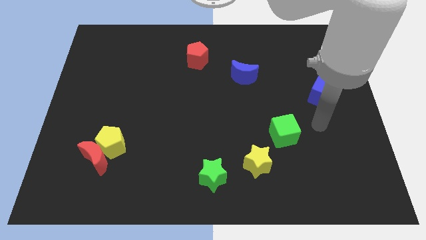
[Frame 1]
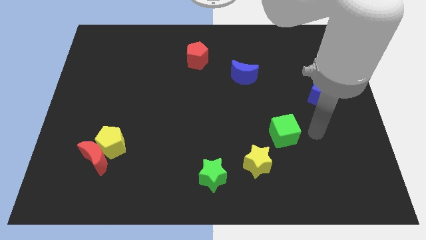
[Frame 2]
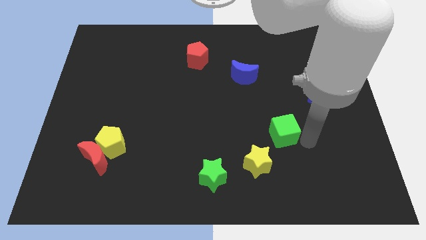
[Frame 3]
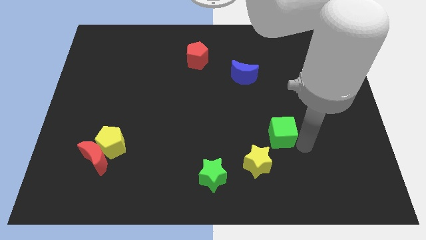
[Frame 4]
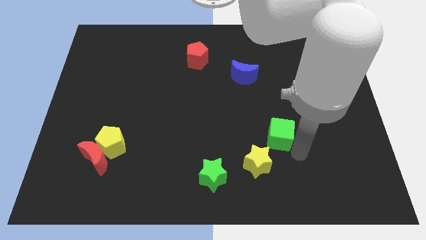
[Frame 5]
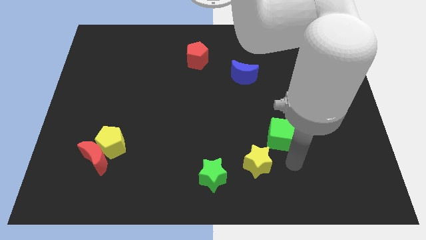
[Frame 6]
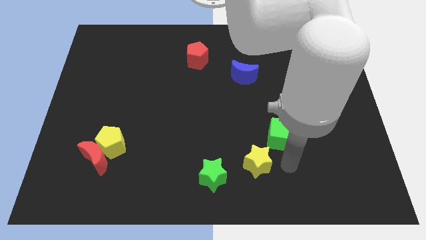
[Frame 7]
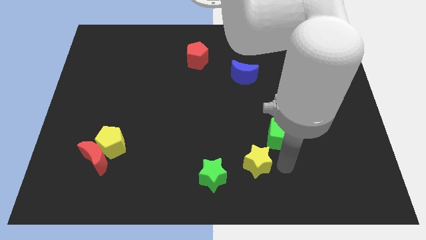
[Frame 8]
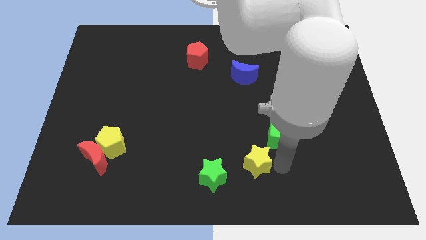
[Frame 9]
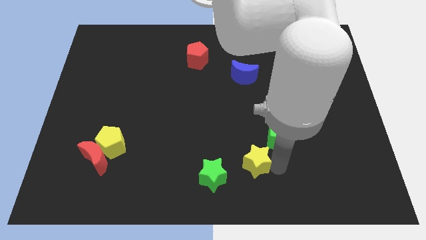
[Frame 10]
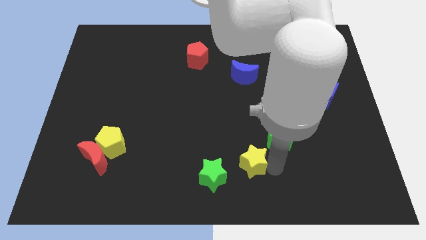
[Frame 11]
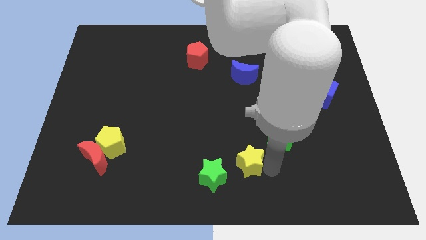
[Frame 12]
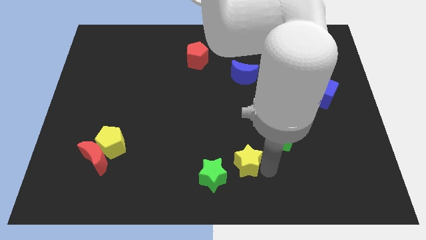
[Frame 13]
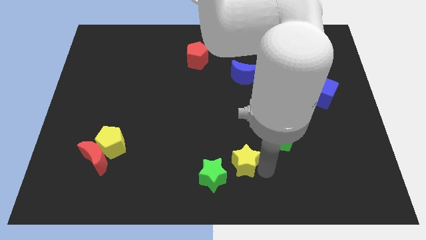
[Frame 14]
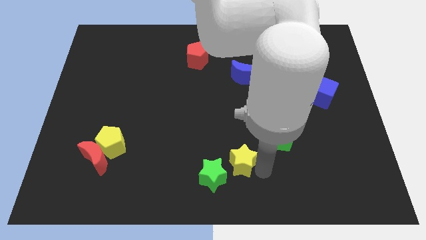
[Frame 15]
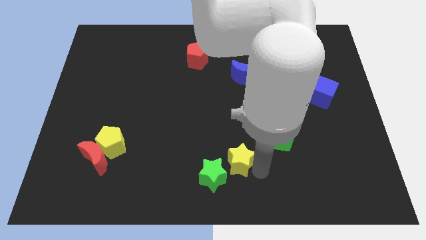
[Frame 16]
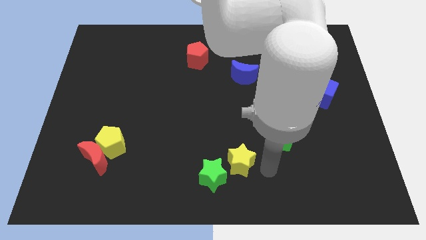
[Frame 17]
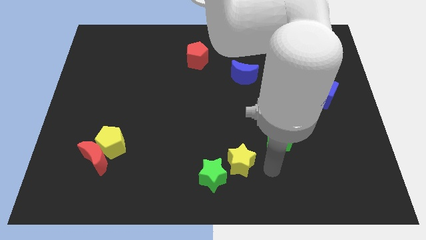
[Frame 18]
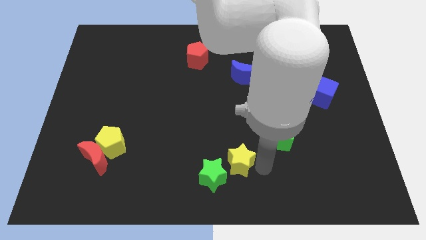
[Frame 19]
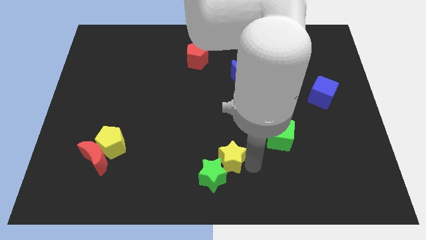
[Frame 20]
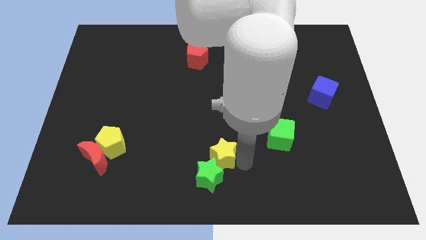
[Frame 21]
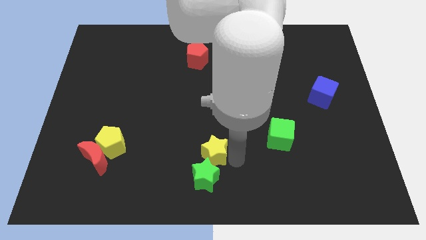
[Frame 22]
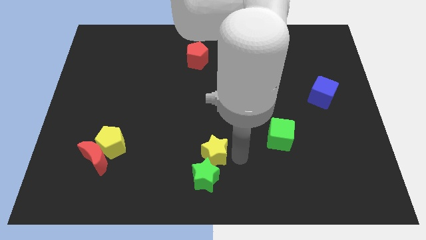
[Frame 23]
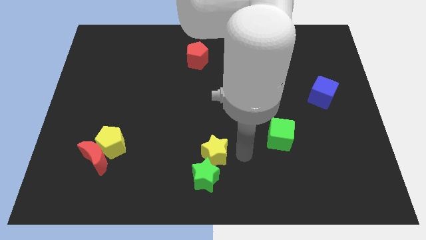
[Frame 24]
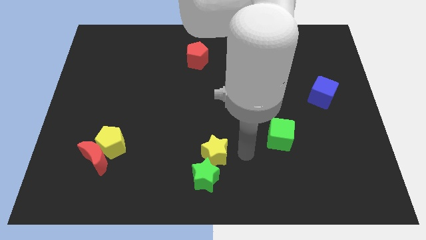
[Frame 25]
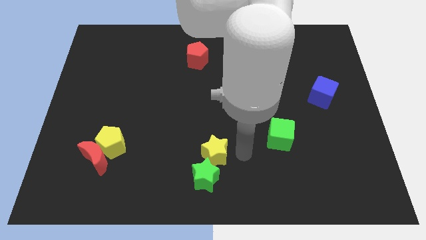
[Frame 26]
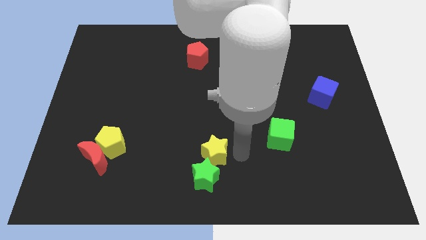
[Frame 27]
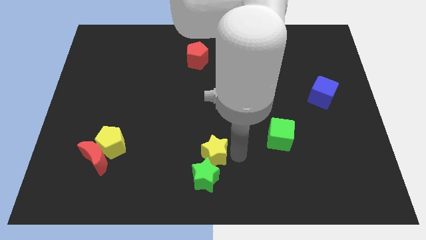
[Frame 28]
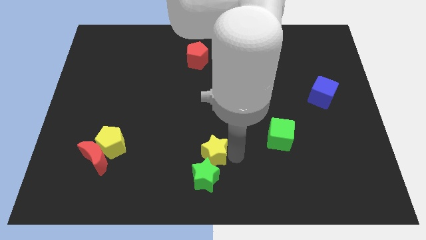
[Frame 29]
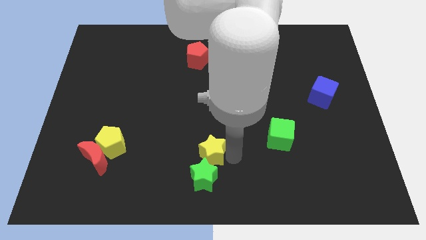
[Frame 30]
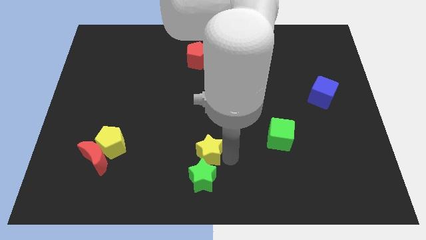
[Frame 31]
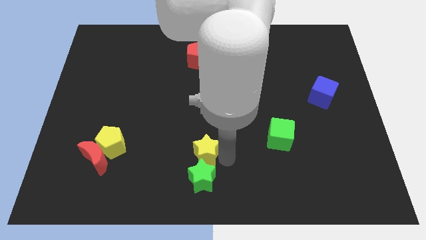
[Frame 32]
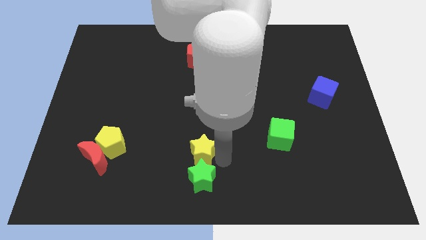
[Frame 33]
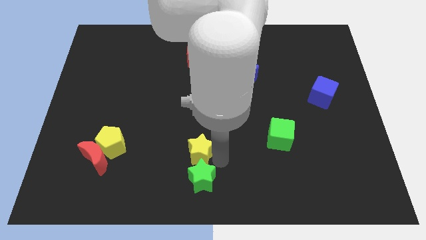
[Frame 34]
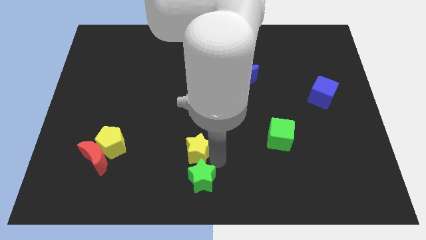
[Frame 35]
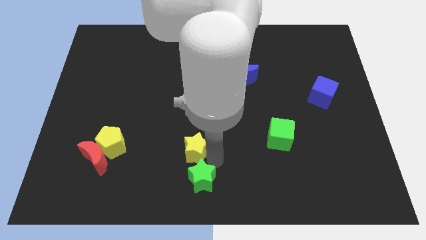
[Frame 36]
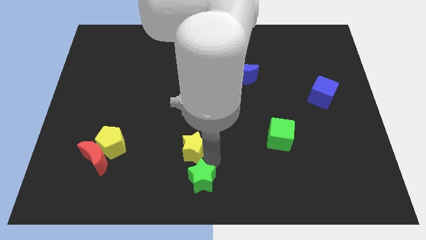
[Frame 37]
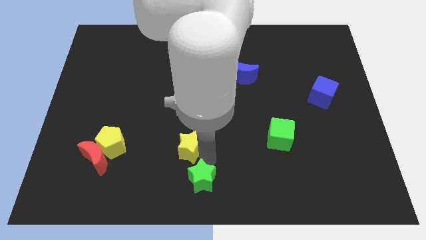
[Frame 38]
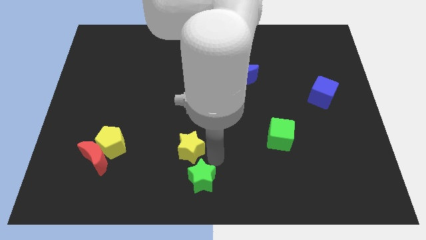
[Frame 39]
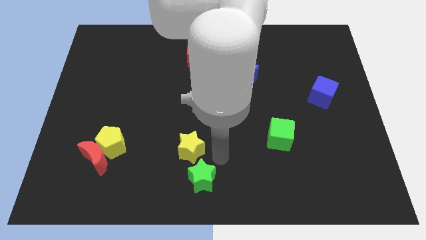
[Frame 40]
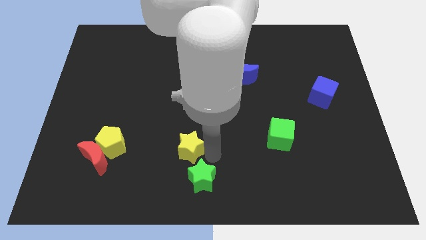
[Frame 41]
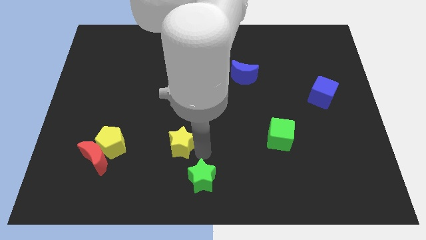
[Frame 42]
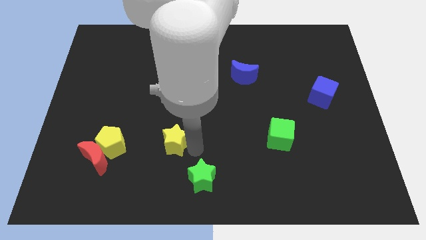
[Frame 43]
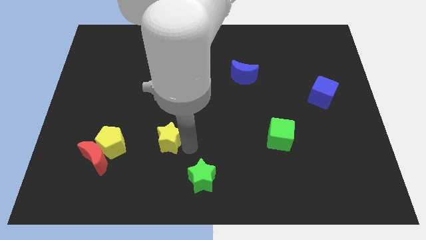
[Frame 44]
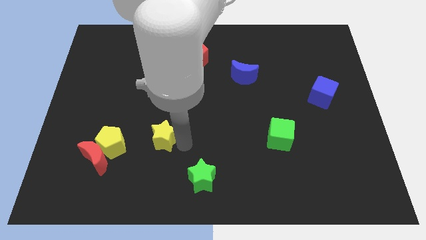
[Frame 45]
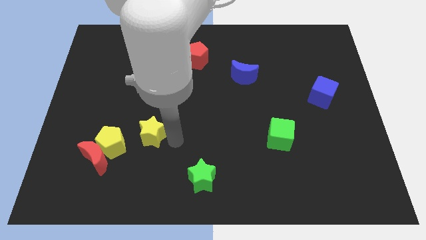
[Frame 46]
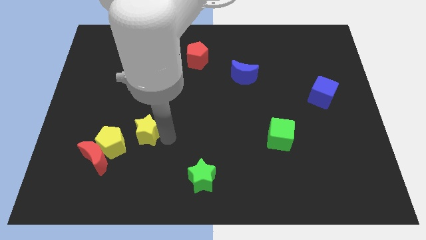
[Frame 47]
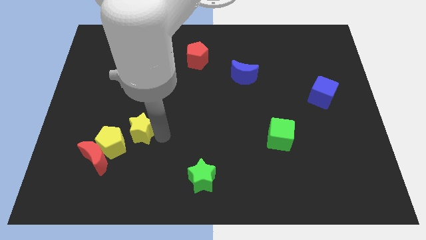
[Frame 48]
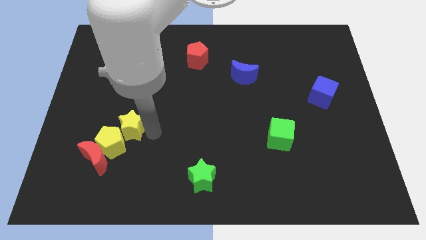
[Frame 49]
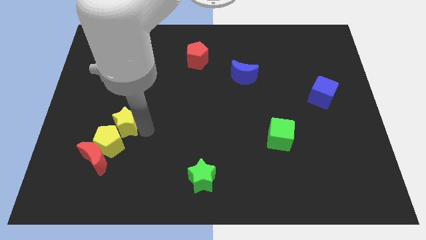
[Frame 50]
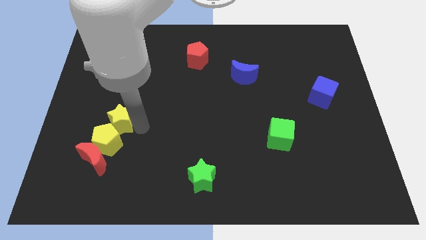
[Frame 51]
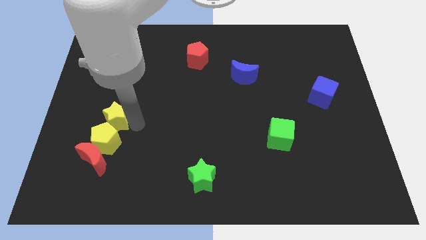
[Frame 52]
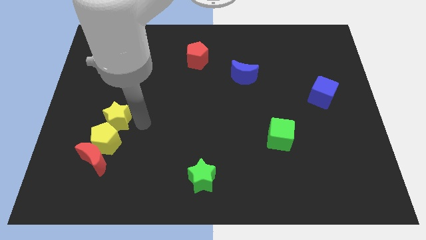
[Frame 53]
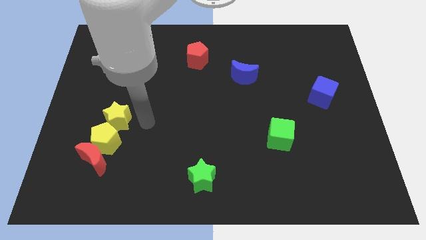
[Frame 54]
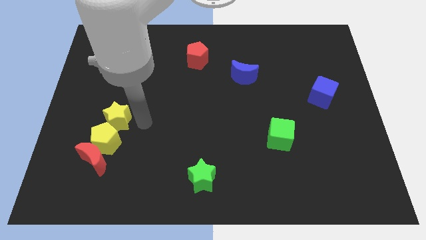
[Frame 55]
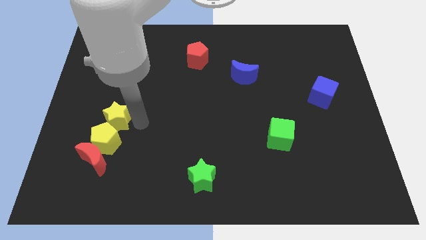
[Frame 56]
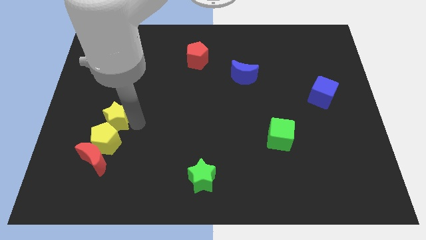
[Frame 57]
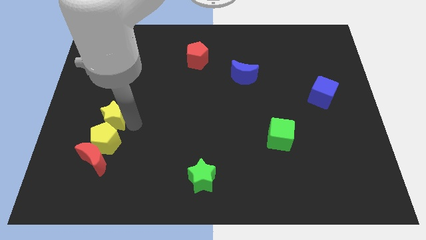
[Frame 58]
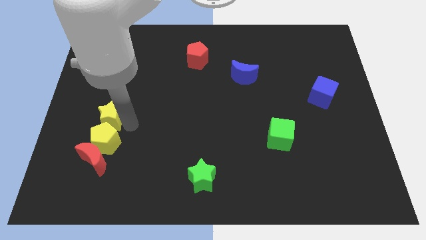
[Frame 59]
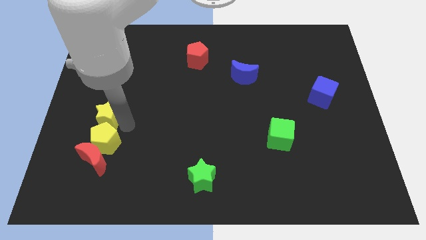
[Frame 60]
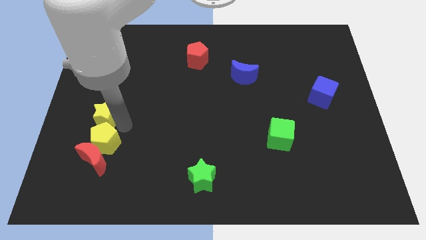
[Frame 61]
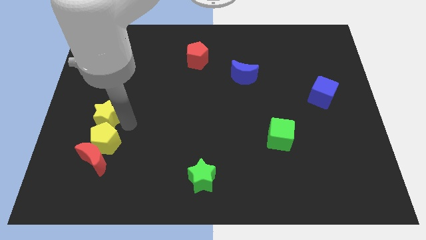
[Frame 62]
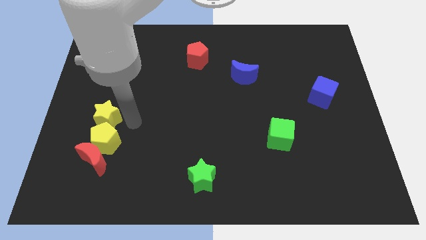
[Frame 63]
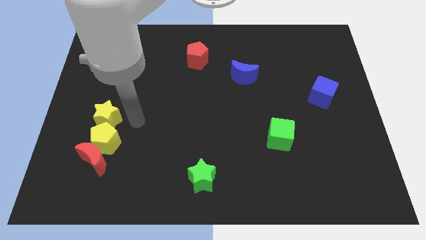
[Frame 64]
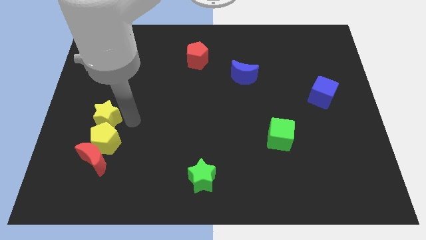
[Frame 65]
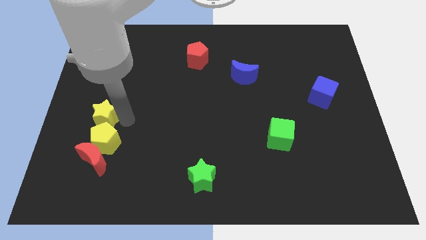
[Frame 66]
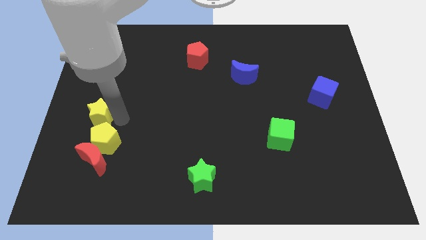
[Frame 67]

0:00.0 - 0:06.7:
put the yellow star to the center left
